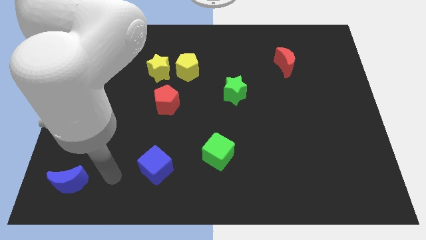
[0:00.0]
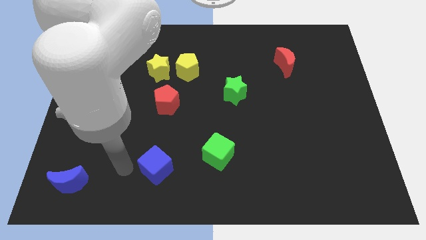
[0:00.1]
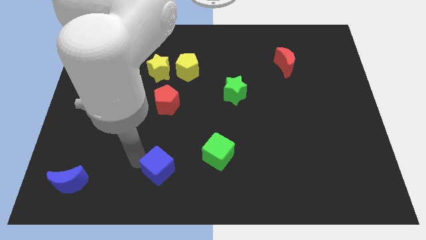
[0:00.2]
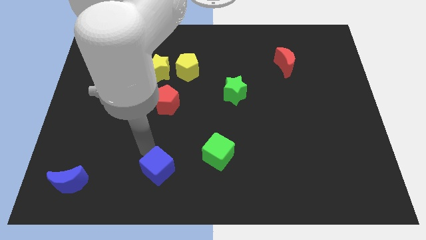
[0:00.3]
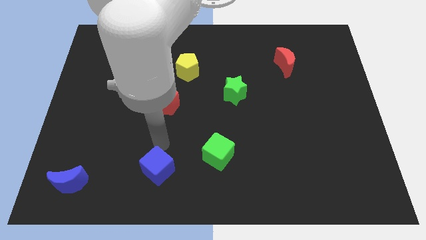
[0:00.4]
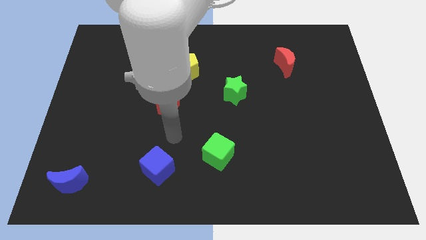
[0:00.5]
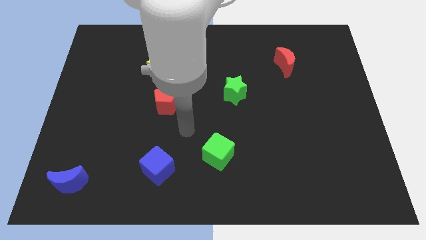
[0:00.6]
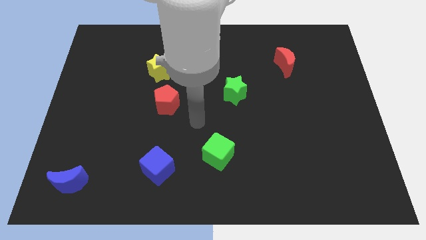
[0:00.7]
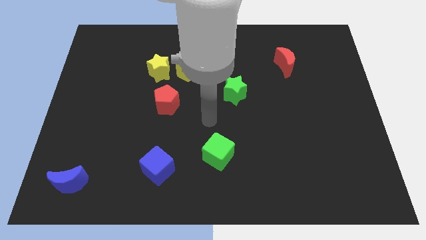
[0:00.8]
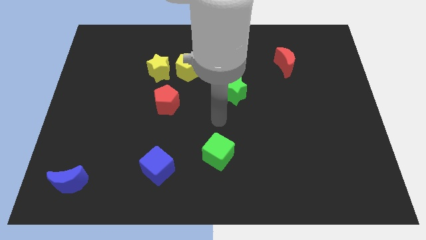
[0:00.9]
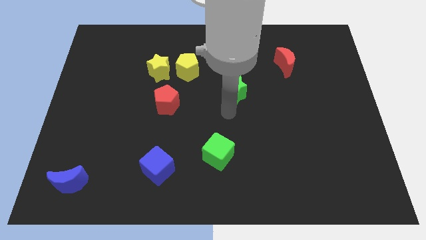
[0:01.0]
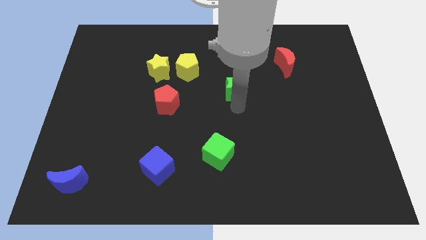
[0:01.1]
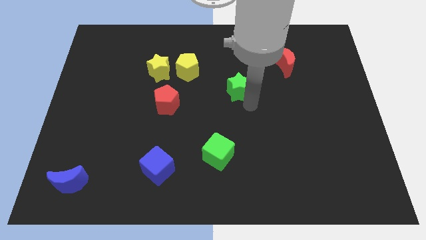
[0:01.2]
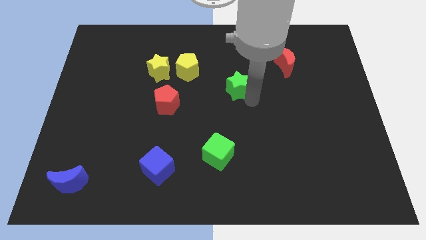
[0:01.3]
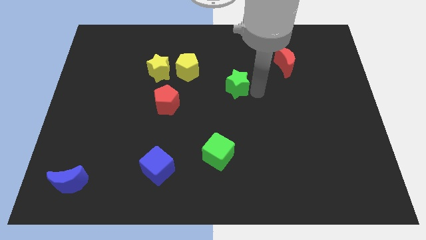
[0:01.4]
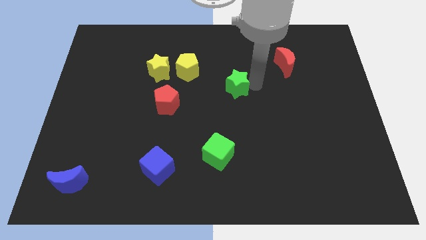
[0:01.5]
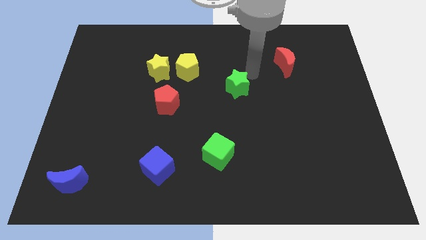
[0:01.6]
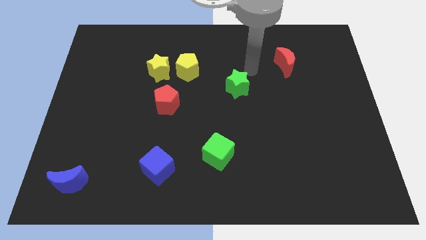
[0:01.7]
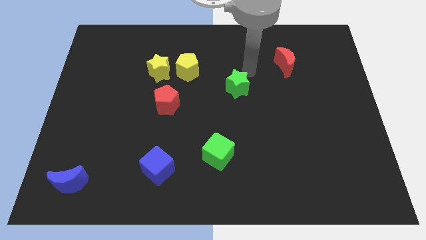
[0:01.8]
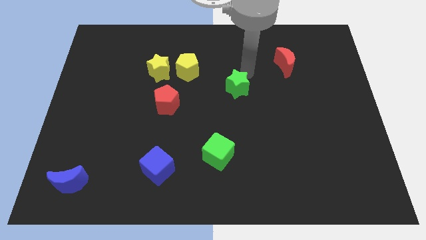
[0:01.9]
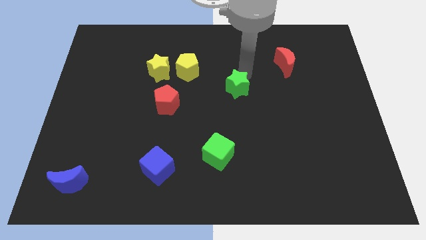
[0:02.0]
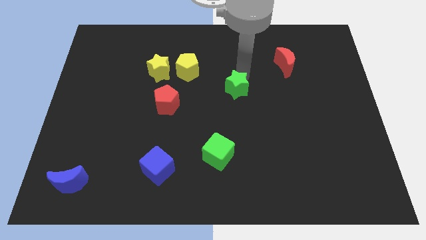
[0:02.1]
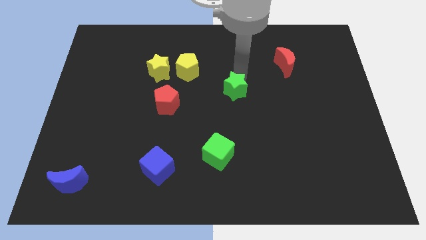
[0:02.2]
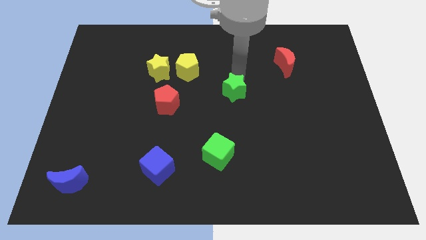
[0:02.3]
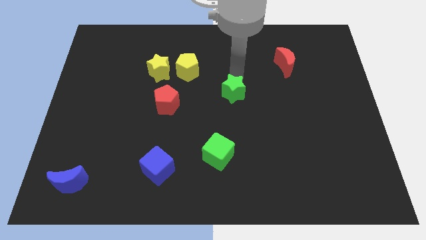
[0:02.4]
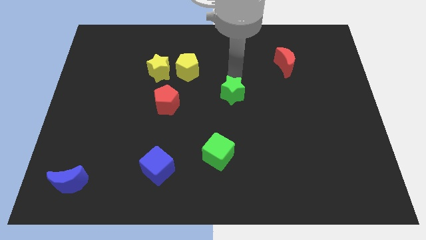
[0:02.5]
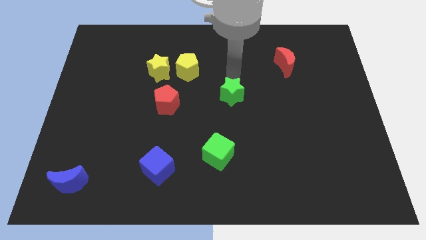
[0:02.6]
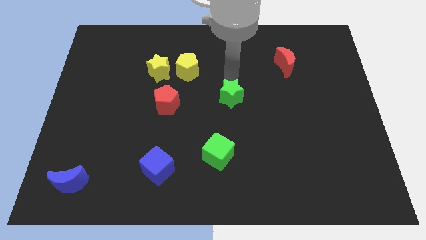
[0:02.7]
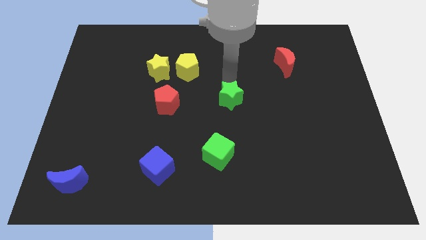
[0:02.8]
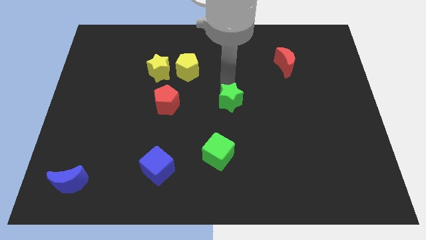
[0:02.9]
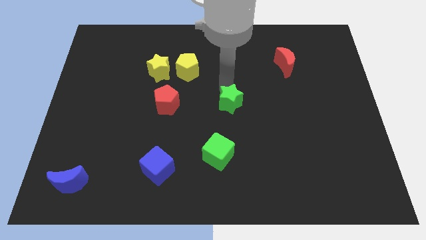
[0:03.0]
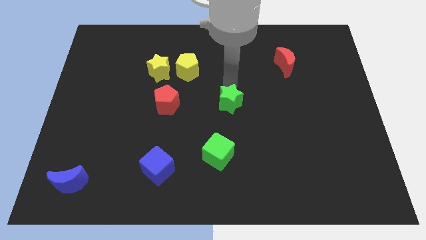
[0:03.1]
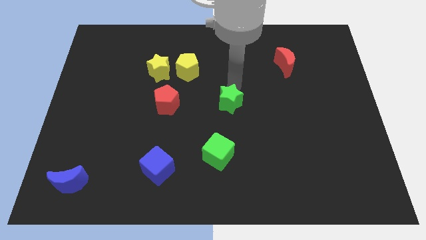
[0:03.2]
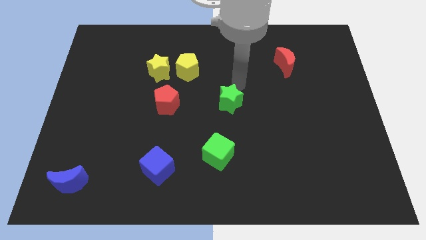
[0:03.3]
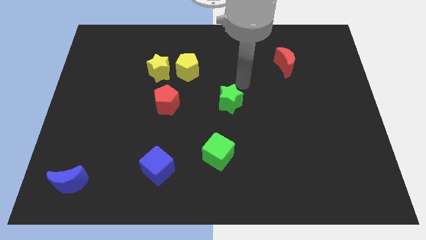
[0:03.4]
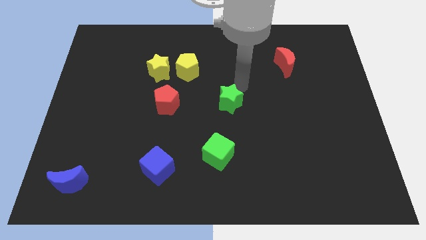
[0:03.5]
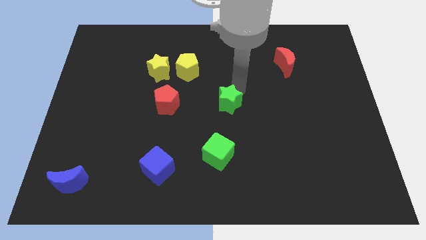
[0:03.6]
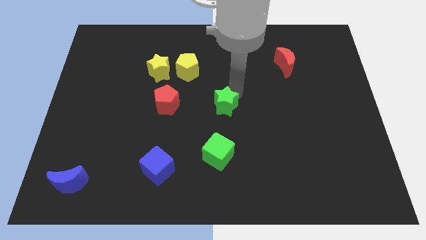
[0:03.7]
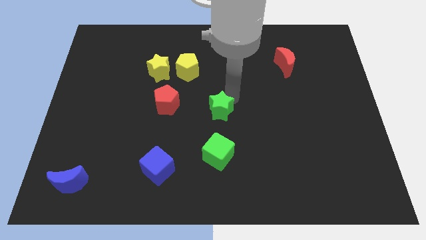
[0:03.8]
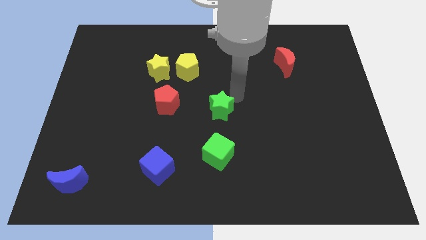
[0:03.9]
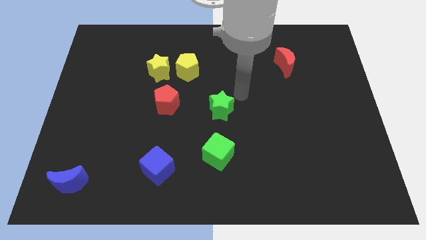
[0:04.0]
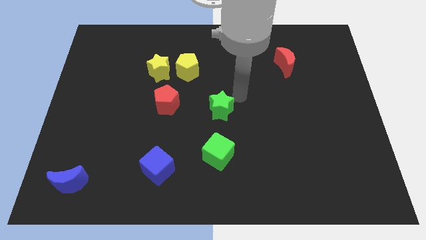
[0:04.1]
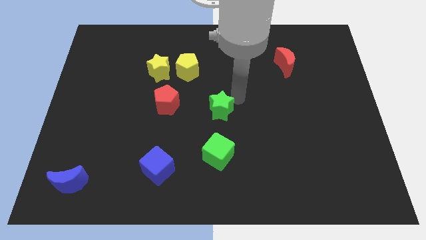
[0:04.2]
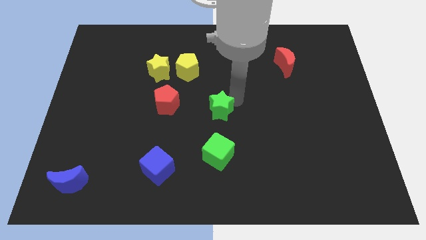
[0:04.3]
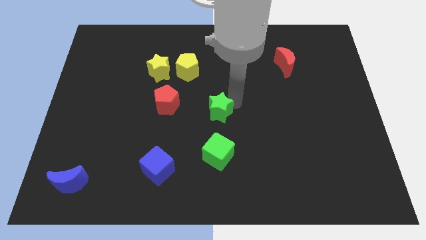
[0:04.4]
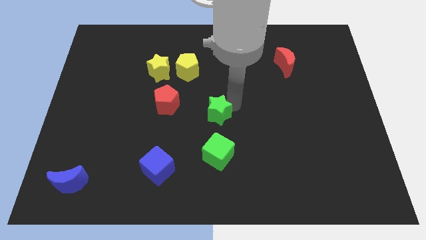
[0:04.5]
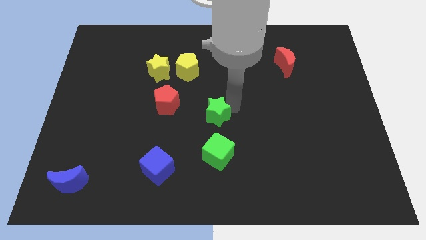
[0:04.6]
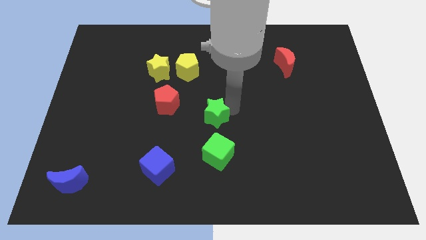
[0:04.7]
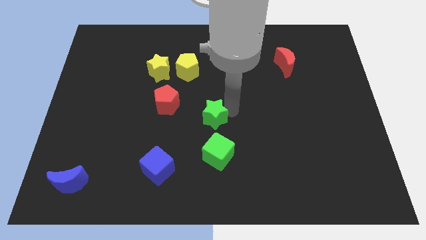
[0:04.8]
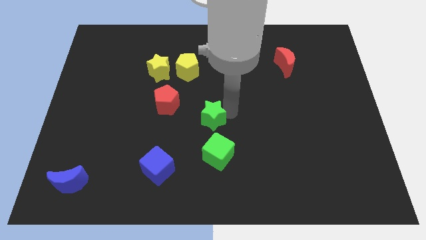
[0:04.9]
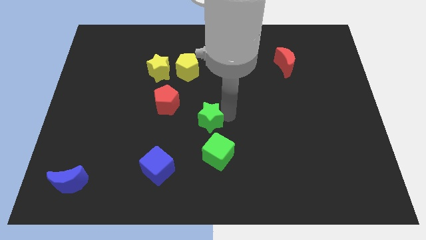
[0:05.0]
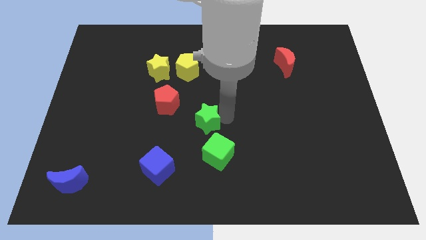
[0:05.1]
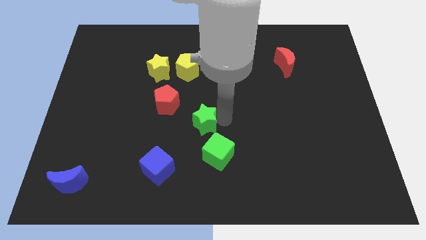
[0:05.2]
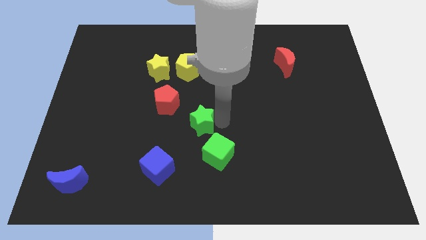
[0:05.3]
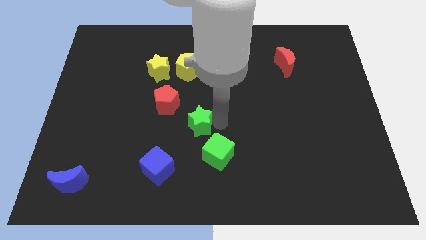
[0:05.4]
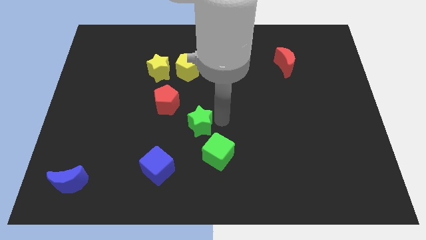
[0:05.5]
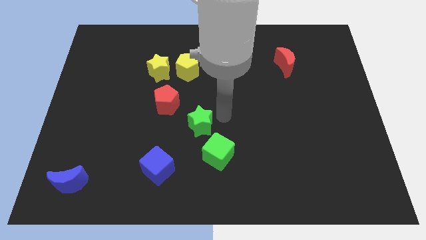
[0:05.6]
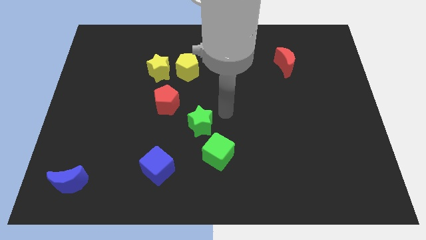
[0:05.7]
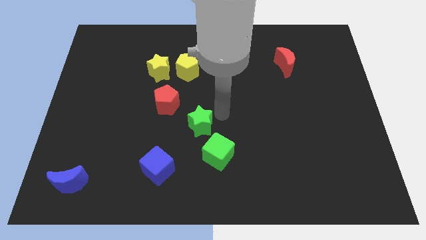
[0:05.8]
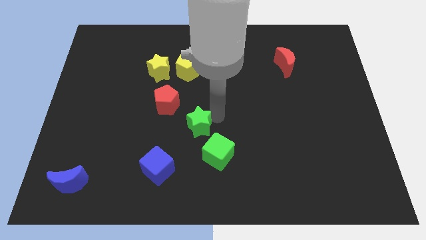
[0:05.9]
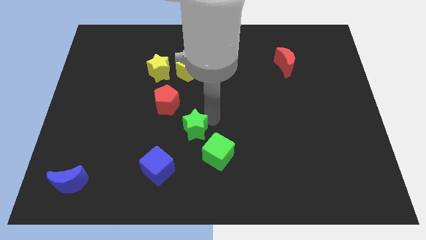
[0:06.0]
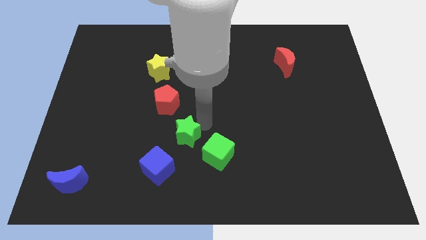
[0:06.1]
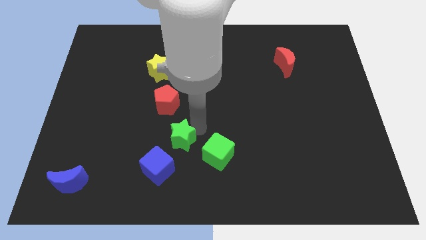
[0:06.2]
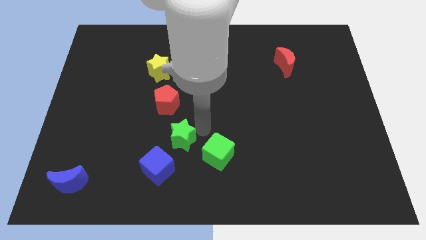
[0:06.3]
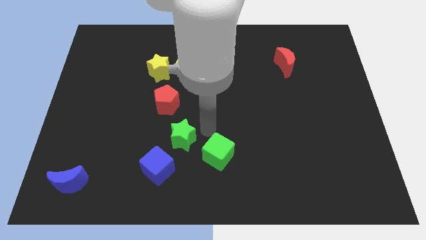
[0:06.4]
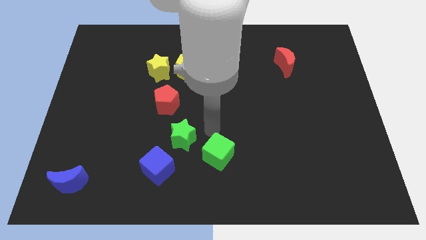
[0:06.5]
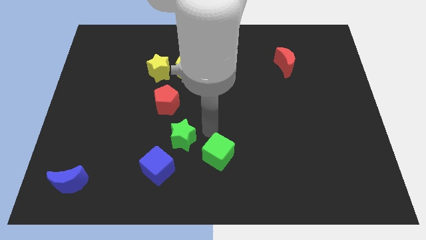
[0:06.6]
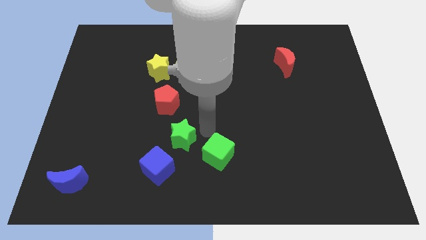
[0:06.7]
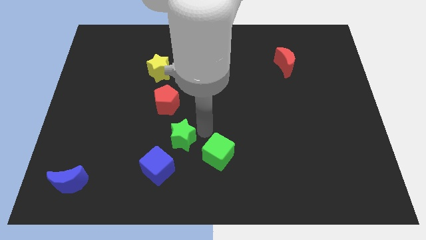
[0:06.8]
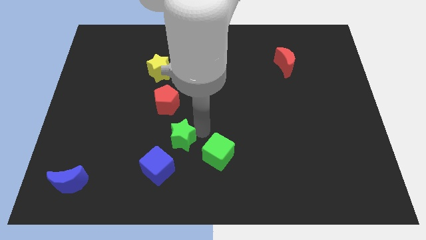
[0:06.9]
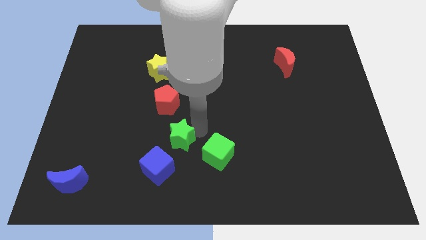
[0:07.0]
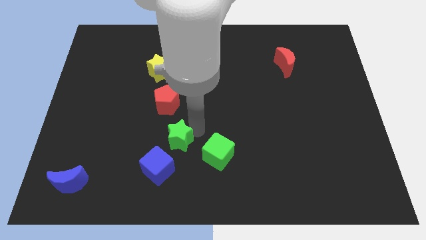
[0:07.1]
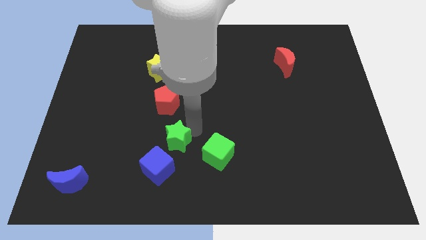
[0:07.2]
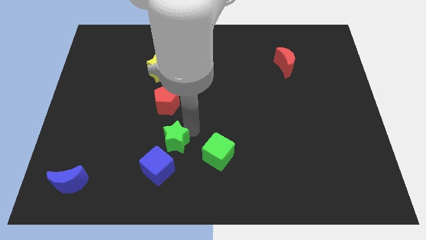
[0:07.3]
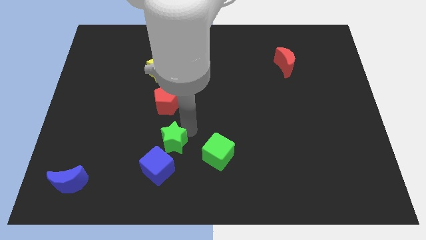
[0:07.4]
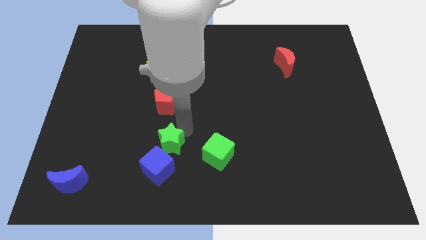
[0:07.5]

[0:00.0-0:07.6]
push the green star downwards and then left

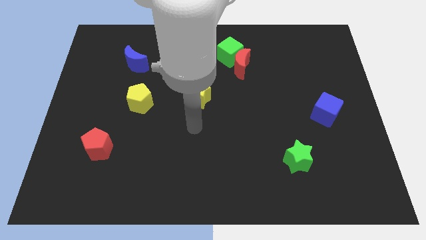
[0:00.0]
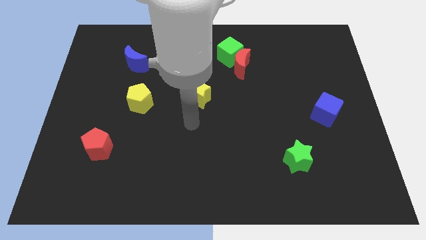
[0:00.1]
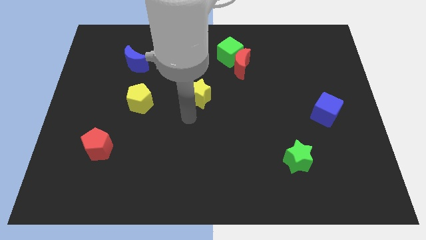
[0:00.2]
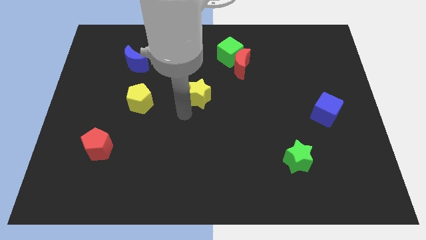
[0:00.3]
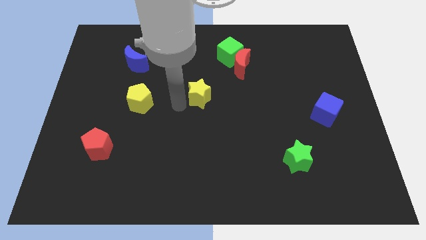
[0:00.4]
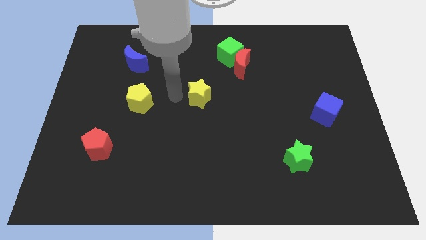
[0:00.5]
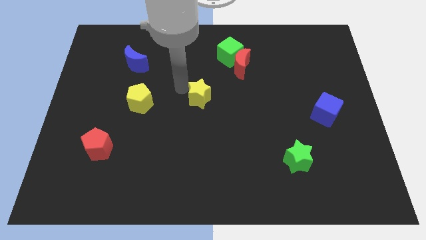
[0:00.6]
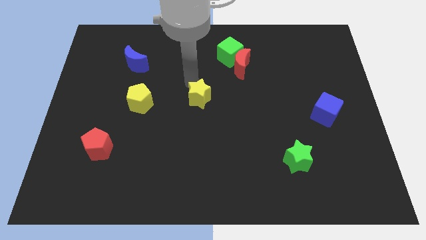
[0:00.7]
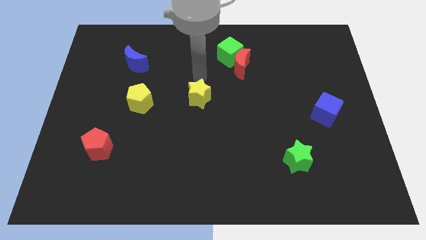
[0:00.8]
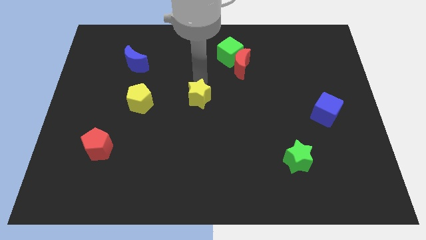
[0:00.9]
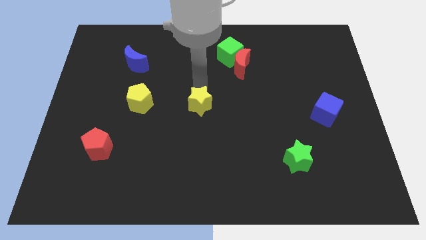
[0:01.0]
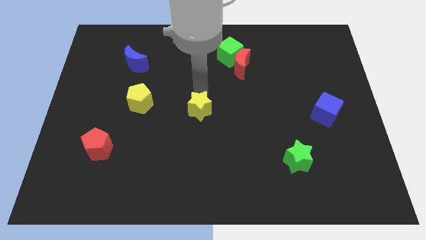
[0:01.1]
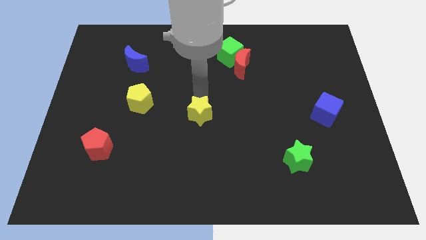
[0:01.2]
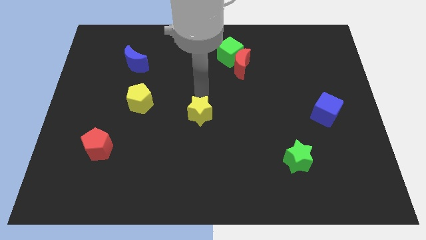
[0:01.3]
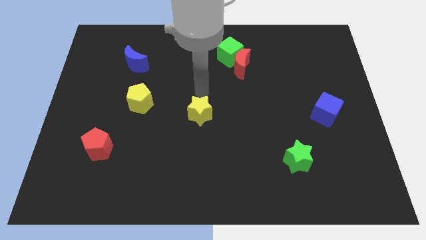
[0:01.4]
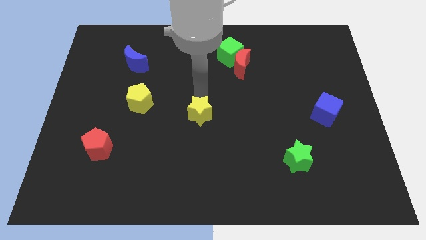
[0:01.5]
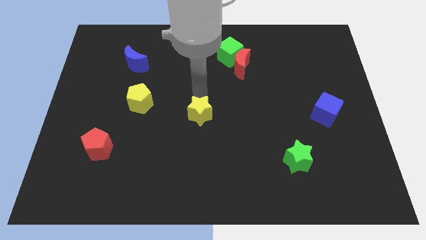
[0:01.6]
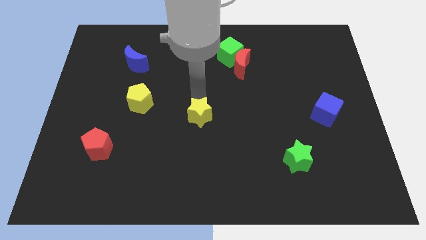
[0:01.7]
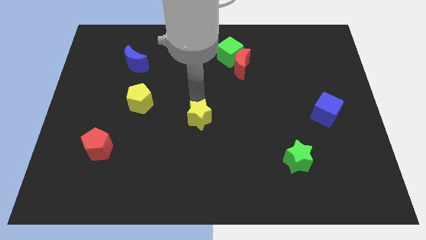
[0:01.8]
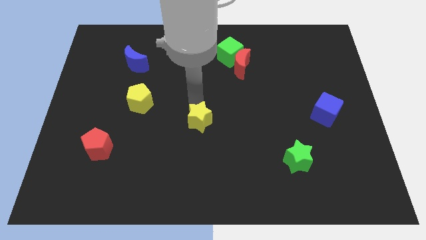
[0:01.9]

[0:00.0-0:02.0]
slide the yellow star down a little bit
